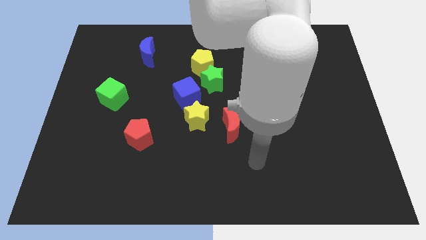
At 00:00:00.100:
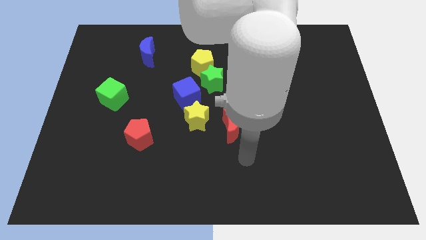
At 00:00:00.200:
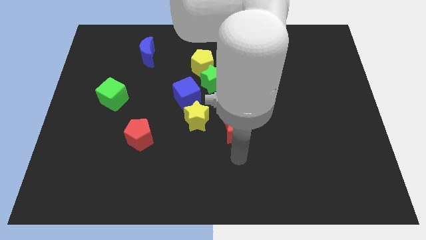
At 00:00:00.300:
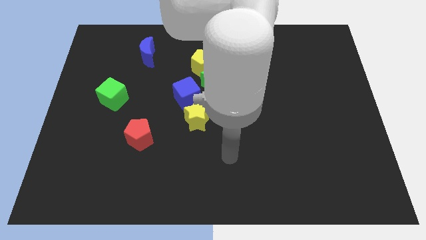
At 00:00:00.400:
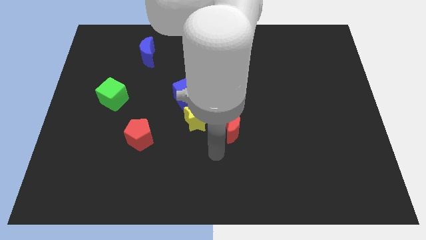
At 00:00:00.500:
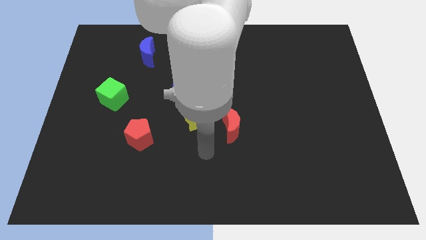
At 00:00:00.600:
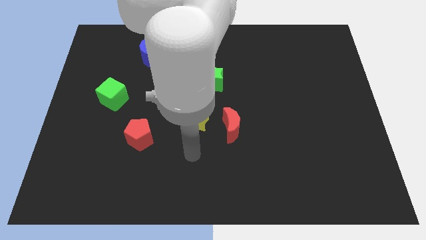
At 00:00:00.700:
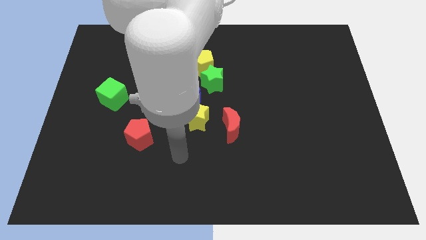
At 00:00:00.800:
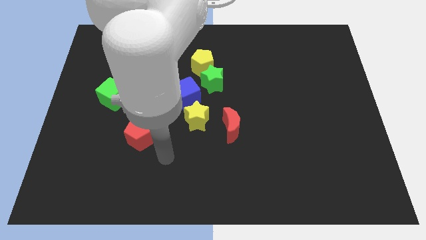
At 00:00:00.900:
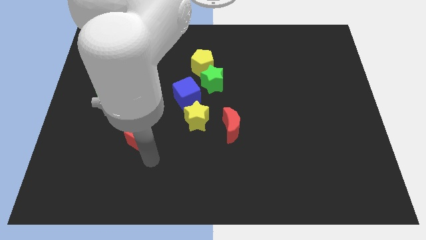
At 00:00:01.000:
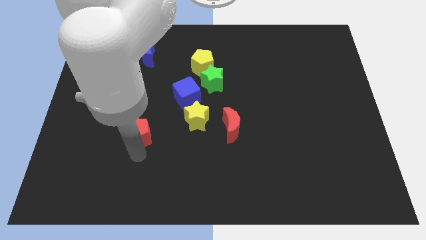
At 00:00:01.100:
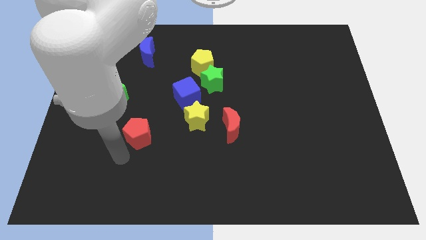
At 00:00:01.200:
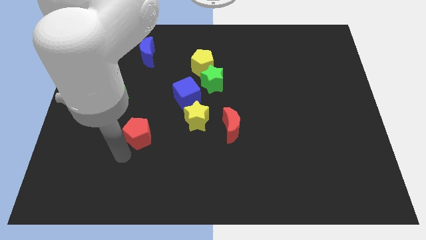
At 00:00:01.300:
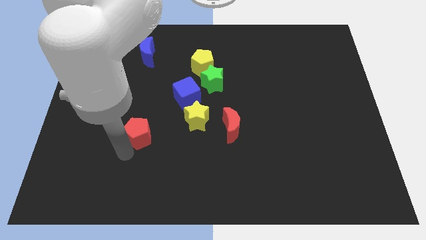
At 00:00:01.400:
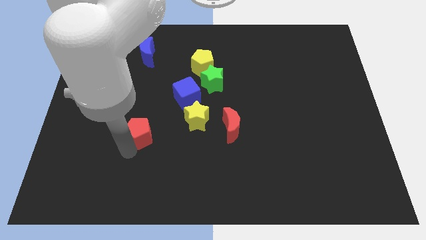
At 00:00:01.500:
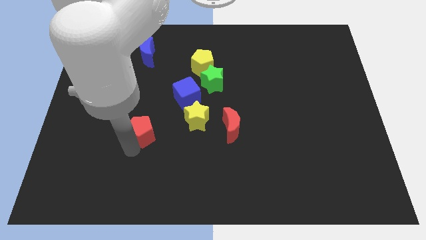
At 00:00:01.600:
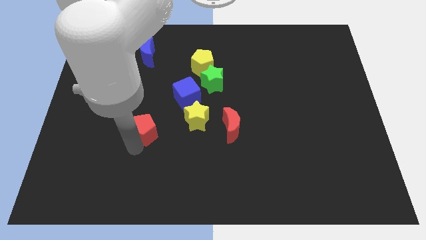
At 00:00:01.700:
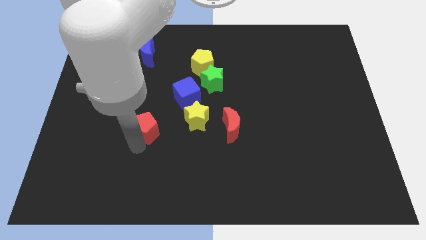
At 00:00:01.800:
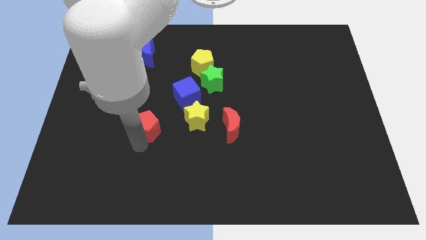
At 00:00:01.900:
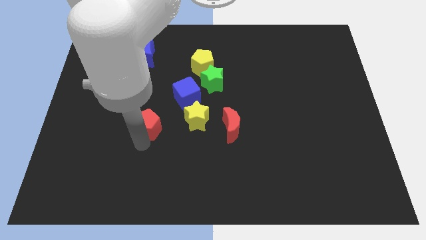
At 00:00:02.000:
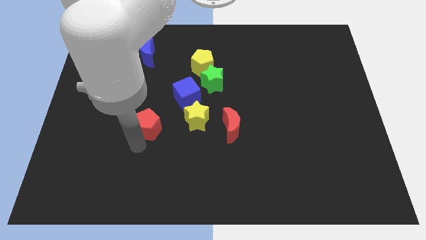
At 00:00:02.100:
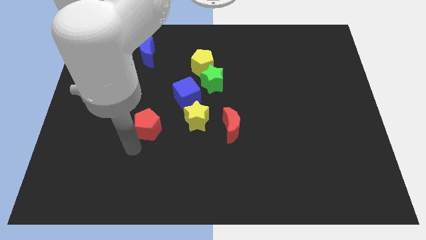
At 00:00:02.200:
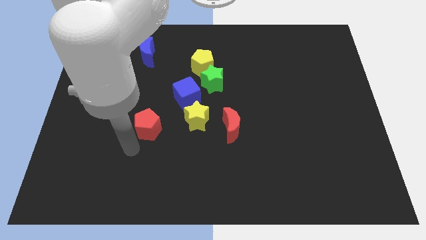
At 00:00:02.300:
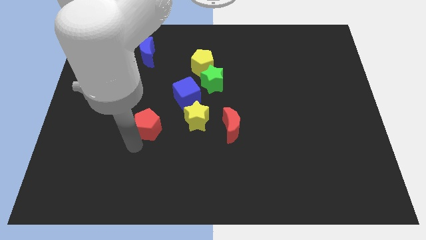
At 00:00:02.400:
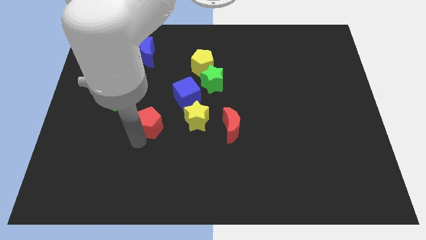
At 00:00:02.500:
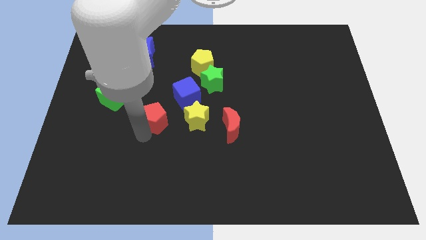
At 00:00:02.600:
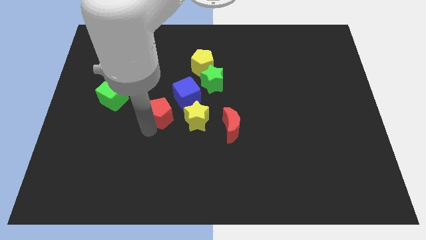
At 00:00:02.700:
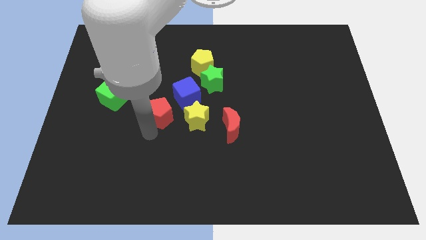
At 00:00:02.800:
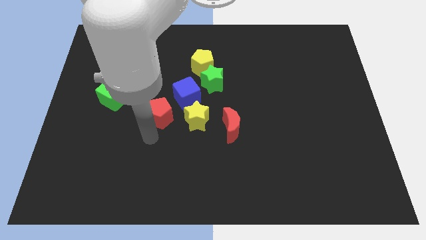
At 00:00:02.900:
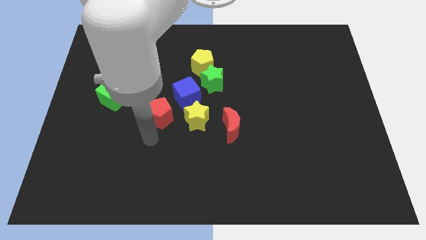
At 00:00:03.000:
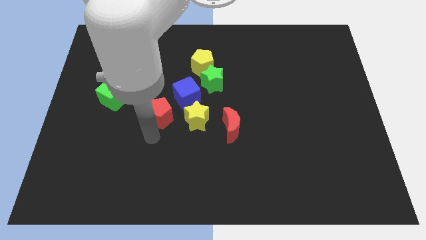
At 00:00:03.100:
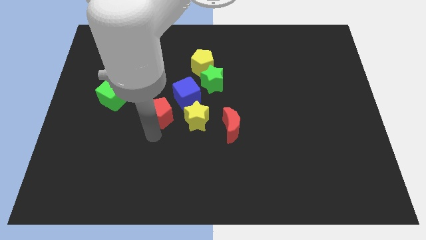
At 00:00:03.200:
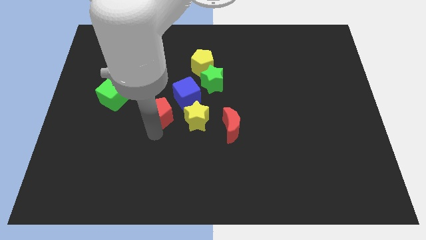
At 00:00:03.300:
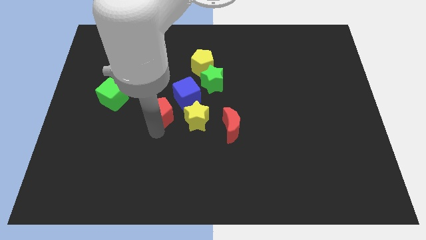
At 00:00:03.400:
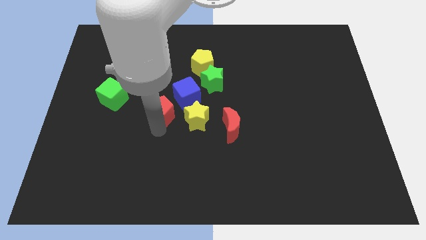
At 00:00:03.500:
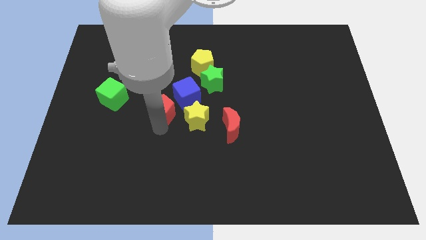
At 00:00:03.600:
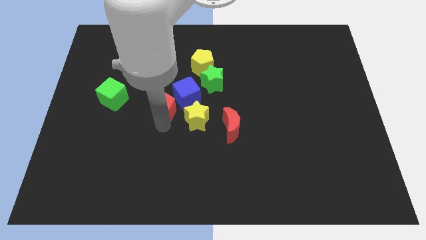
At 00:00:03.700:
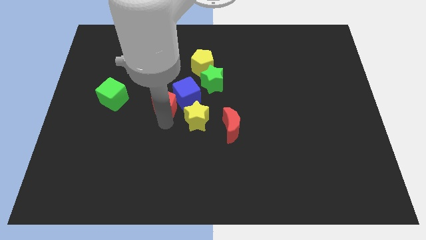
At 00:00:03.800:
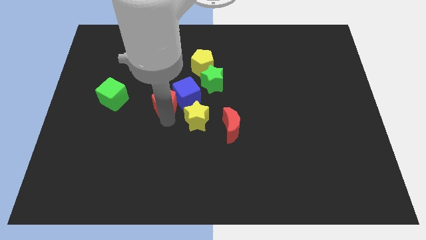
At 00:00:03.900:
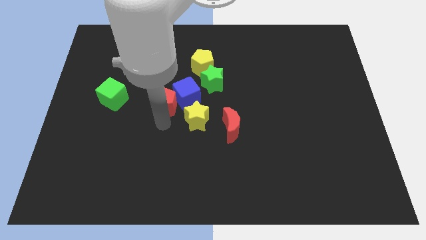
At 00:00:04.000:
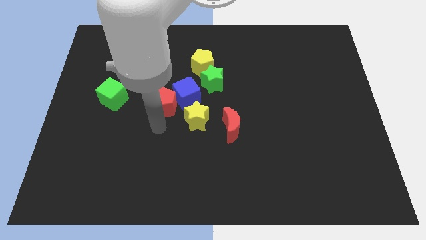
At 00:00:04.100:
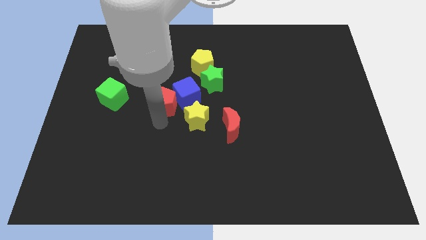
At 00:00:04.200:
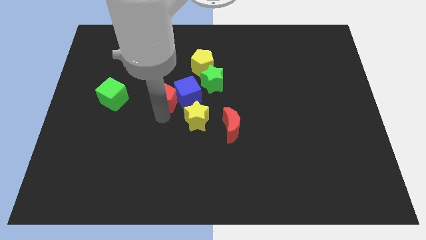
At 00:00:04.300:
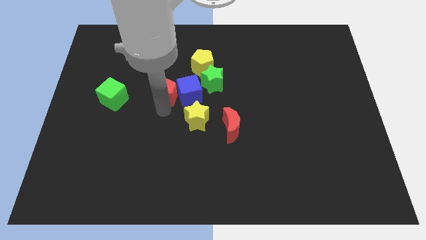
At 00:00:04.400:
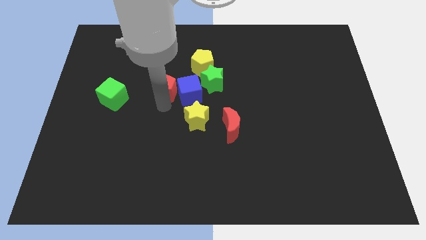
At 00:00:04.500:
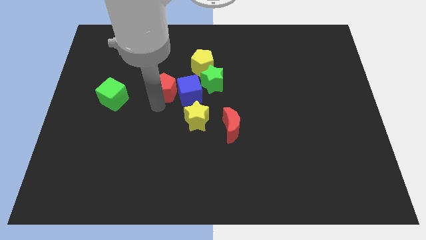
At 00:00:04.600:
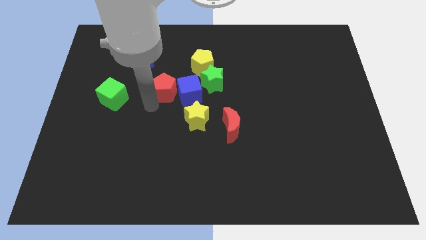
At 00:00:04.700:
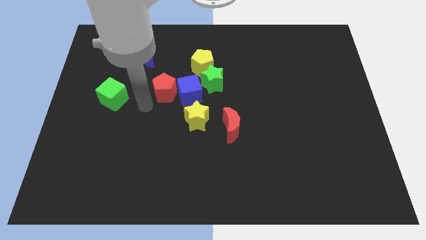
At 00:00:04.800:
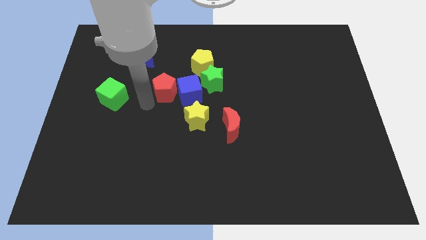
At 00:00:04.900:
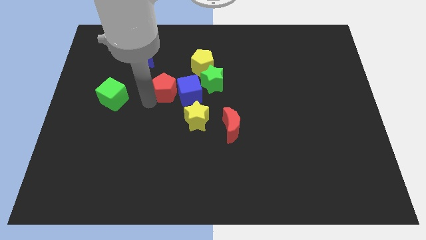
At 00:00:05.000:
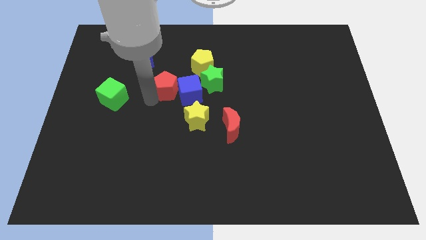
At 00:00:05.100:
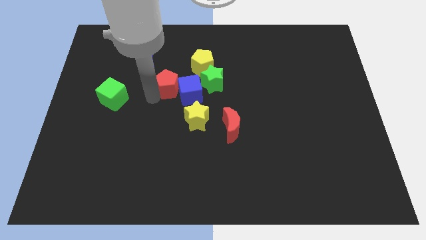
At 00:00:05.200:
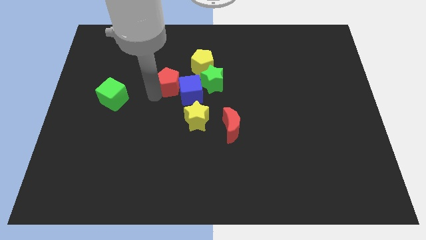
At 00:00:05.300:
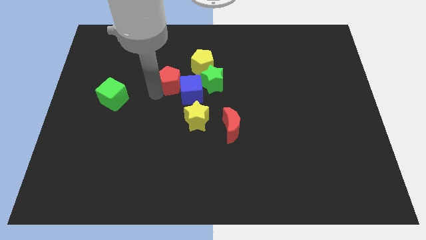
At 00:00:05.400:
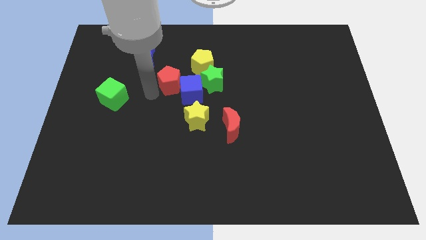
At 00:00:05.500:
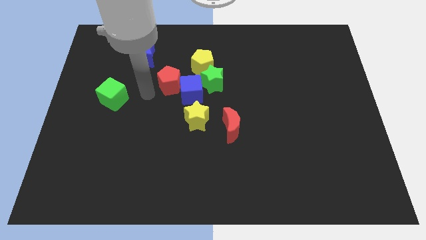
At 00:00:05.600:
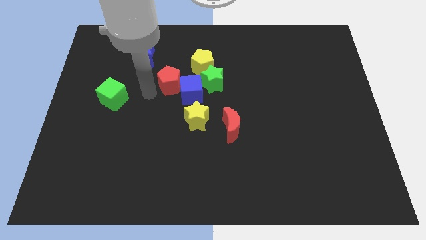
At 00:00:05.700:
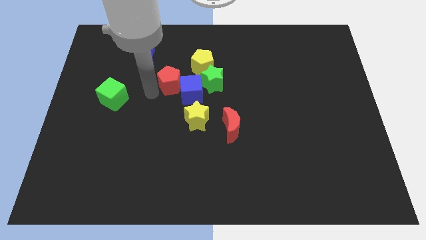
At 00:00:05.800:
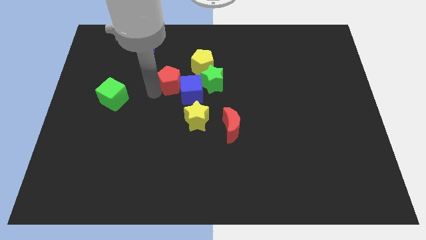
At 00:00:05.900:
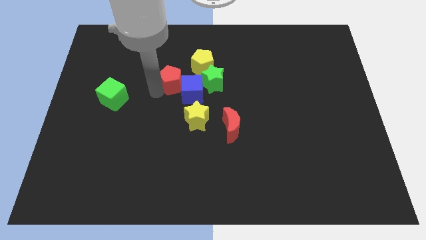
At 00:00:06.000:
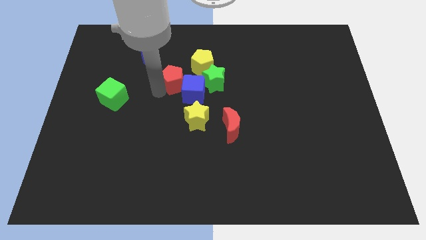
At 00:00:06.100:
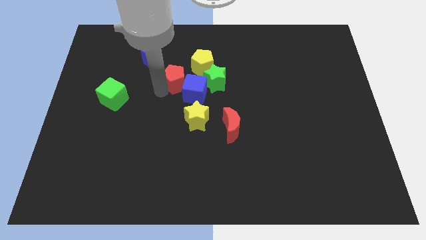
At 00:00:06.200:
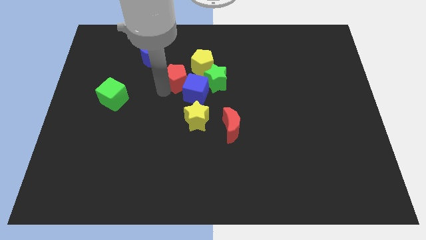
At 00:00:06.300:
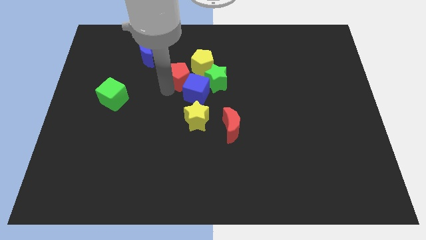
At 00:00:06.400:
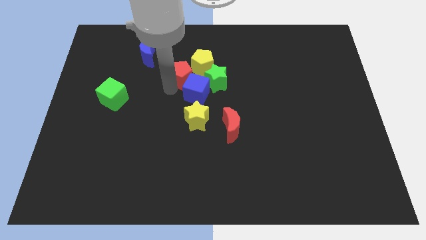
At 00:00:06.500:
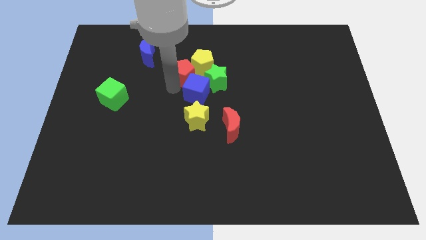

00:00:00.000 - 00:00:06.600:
slide the red pentagon close to the yellow pentagon

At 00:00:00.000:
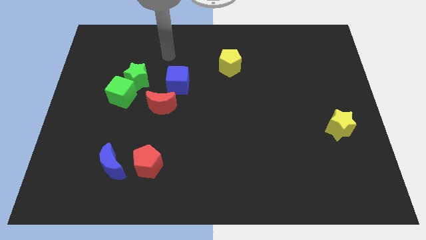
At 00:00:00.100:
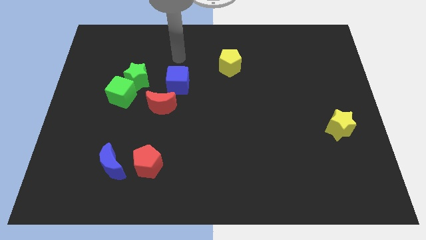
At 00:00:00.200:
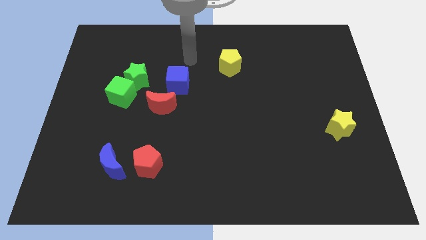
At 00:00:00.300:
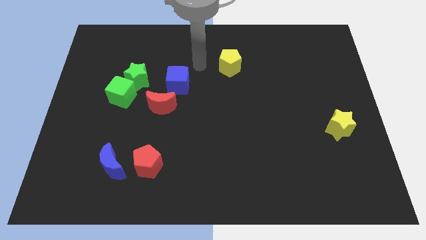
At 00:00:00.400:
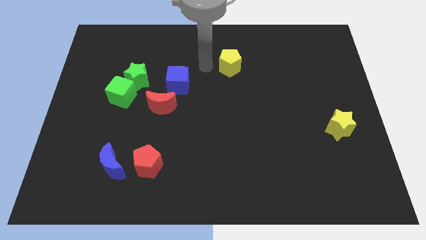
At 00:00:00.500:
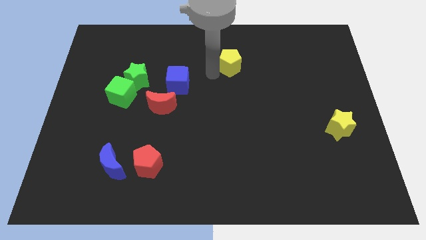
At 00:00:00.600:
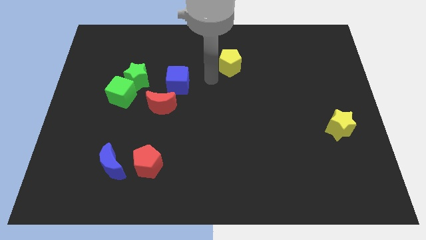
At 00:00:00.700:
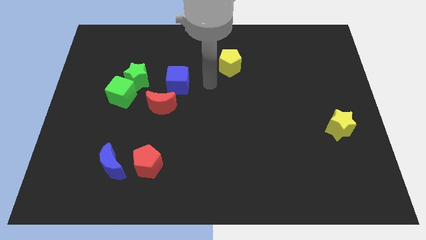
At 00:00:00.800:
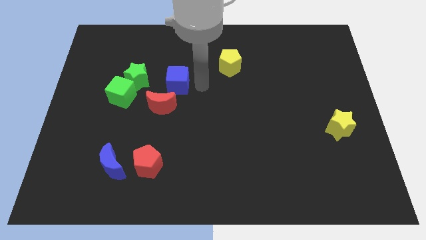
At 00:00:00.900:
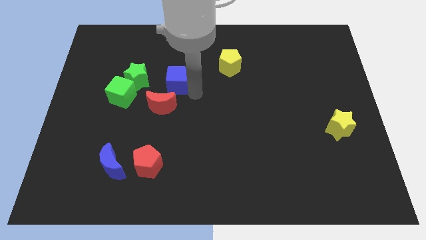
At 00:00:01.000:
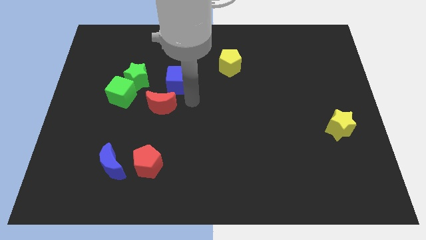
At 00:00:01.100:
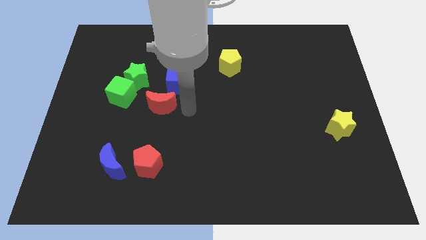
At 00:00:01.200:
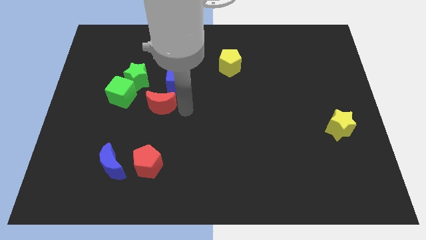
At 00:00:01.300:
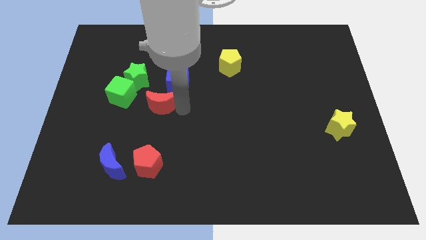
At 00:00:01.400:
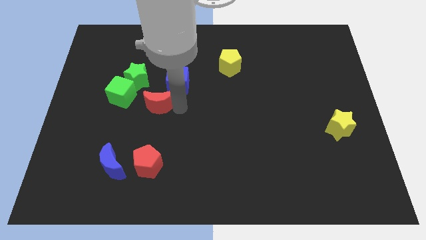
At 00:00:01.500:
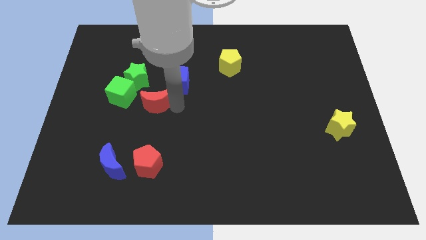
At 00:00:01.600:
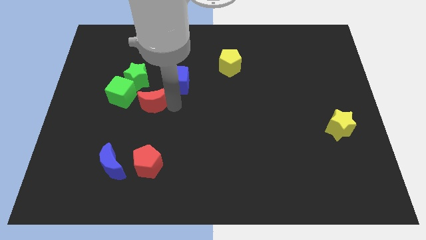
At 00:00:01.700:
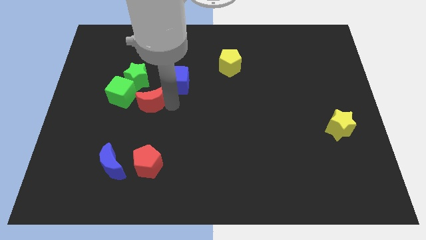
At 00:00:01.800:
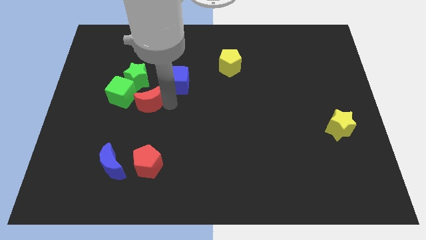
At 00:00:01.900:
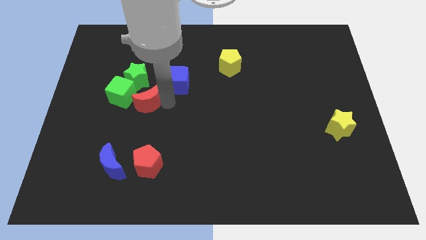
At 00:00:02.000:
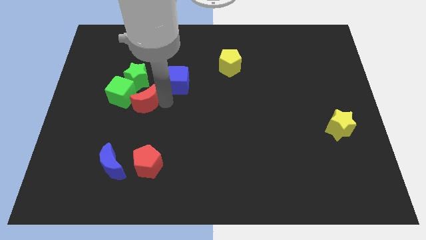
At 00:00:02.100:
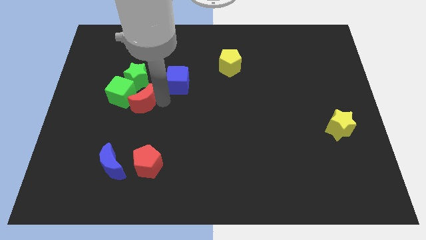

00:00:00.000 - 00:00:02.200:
push the red moon to the green cube
